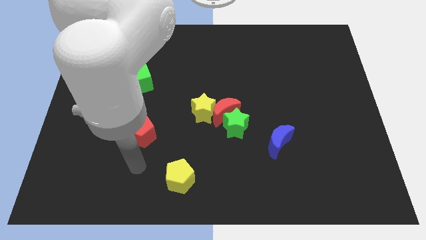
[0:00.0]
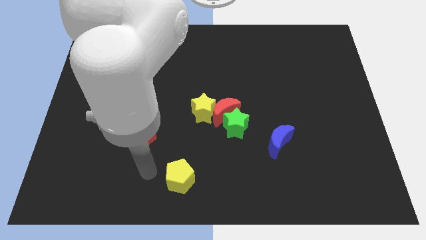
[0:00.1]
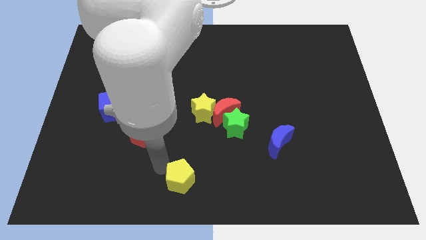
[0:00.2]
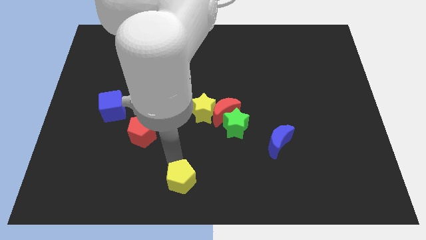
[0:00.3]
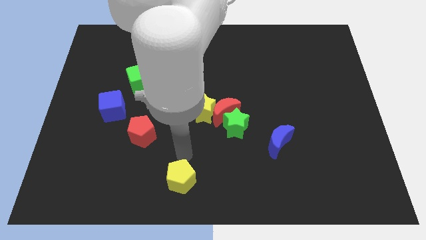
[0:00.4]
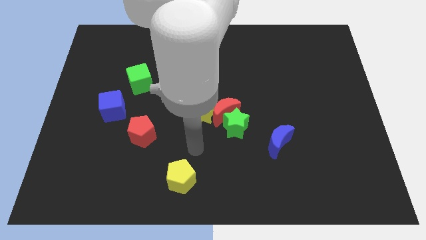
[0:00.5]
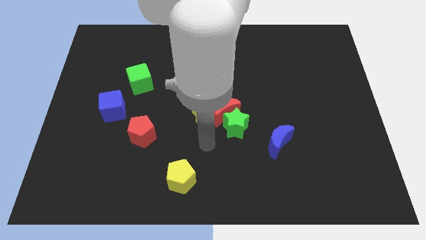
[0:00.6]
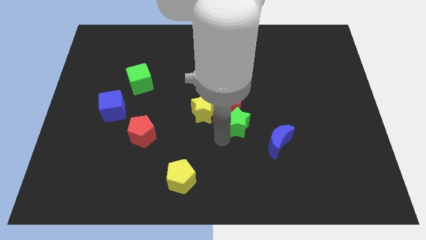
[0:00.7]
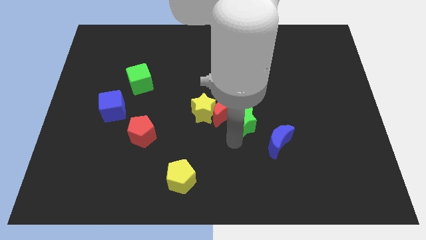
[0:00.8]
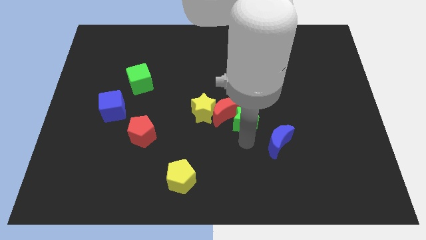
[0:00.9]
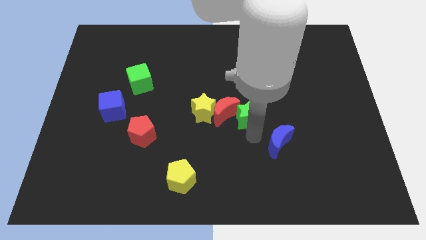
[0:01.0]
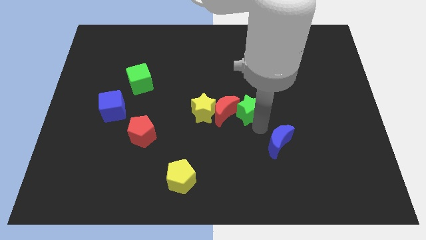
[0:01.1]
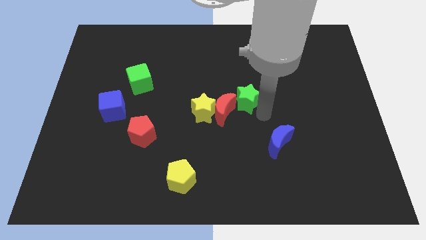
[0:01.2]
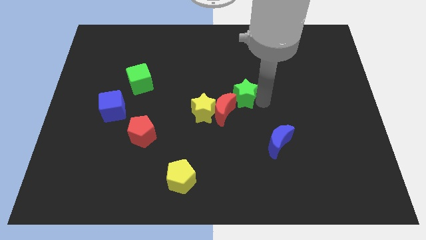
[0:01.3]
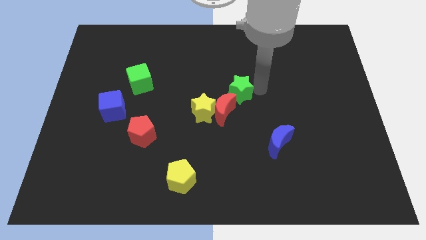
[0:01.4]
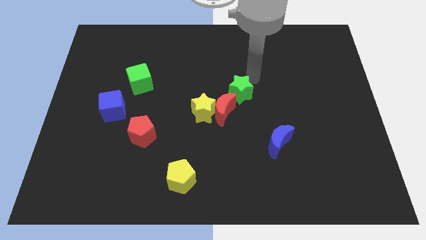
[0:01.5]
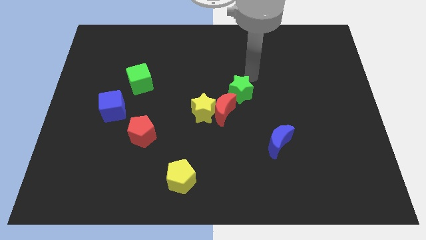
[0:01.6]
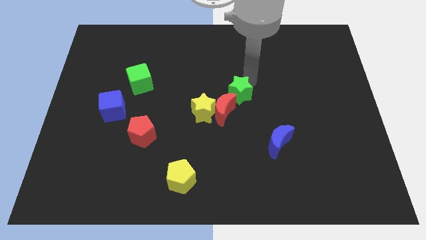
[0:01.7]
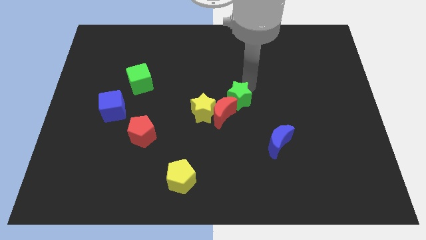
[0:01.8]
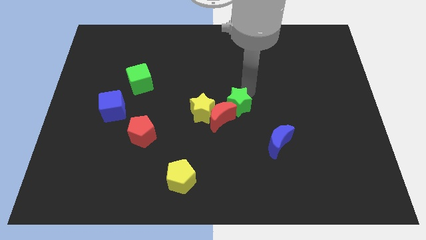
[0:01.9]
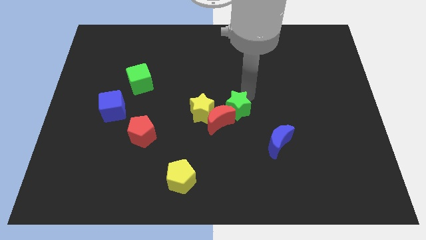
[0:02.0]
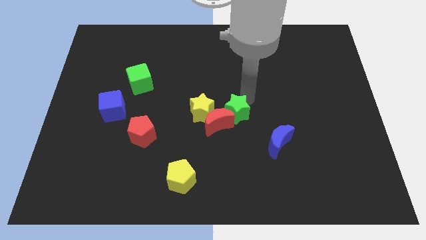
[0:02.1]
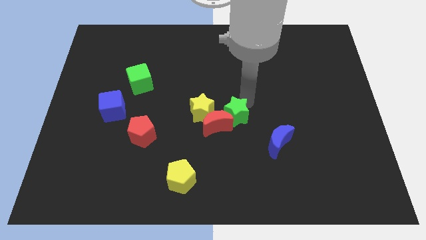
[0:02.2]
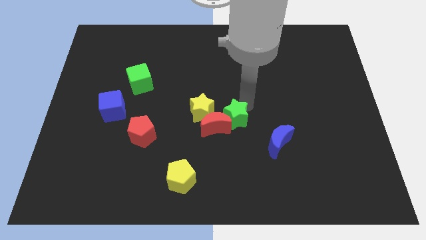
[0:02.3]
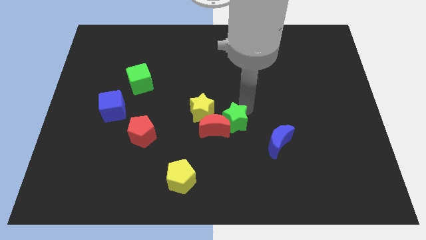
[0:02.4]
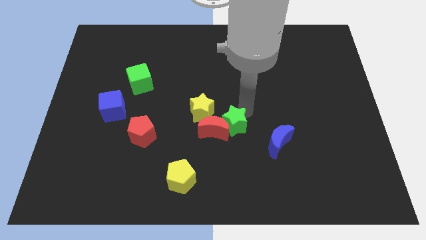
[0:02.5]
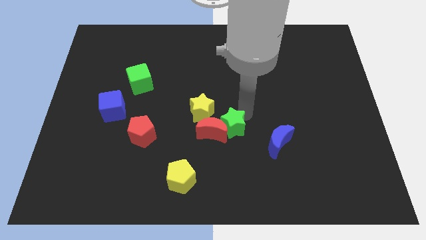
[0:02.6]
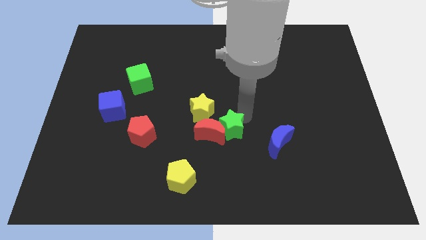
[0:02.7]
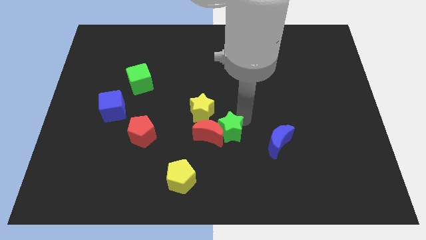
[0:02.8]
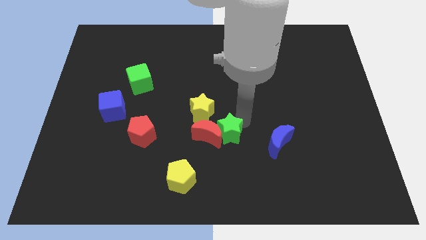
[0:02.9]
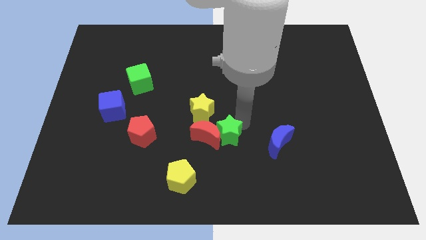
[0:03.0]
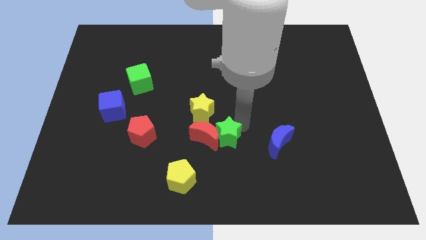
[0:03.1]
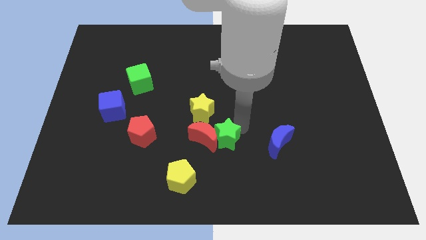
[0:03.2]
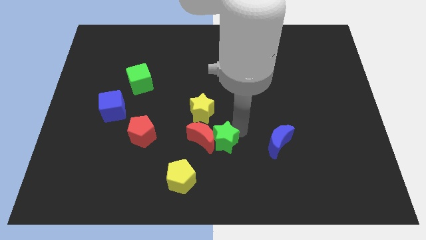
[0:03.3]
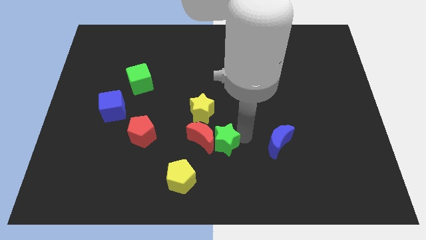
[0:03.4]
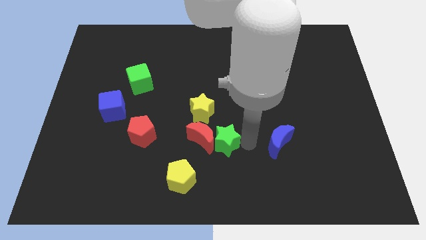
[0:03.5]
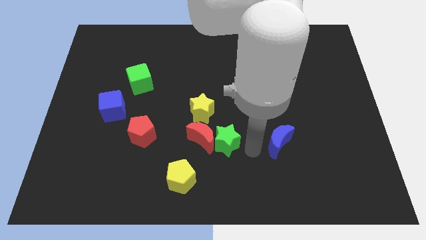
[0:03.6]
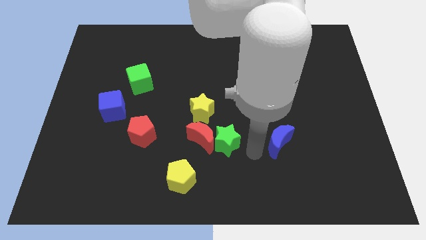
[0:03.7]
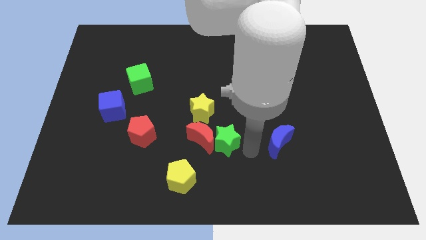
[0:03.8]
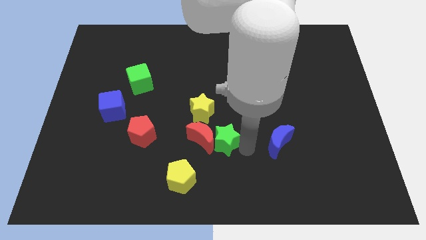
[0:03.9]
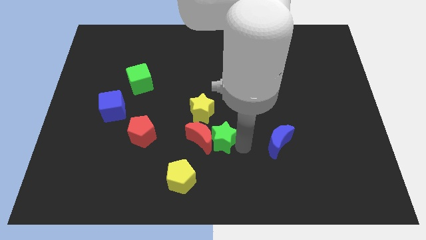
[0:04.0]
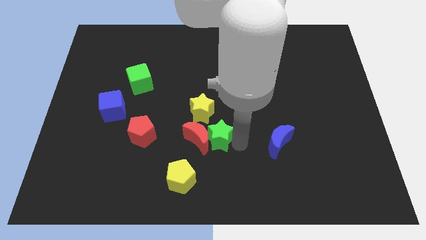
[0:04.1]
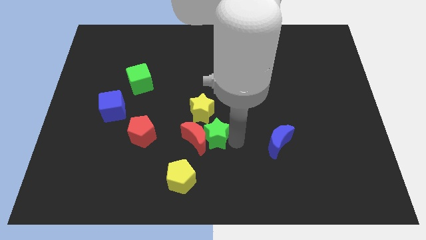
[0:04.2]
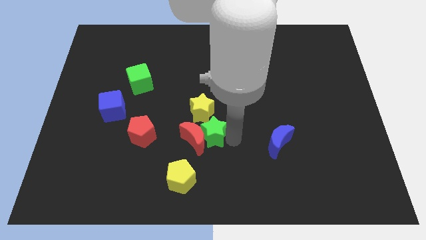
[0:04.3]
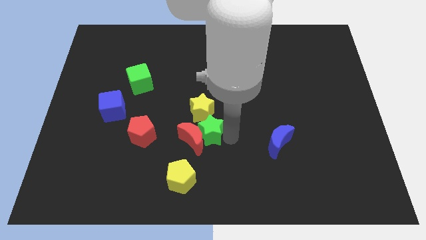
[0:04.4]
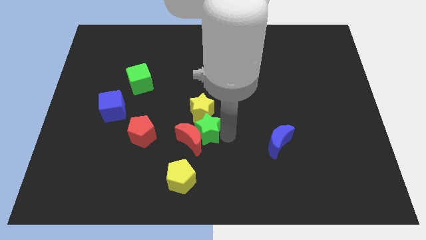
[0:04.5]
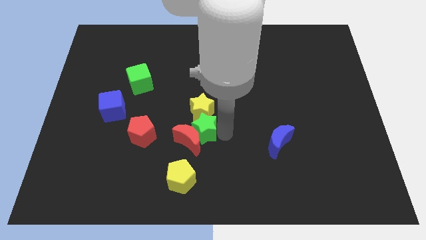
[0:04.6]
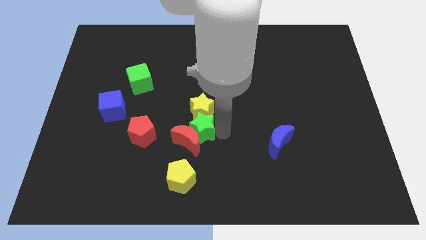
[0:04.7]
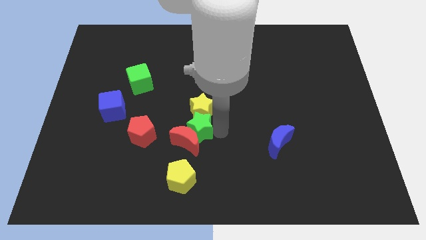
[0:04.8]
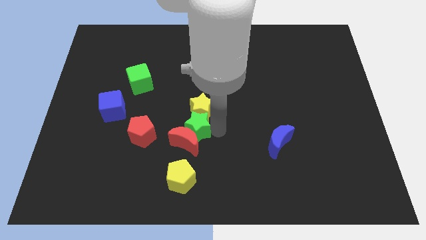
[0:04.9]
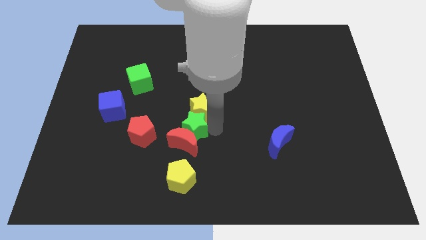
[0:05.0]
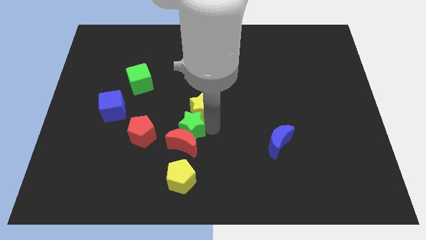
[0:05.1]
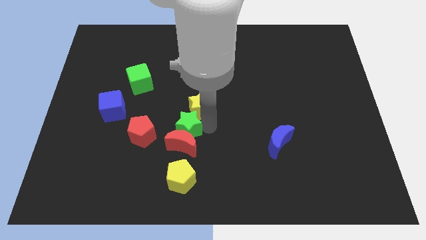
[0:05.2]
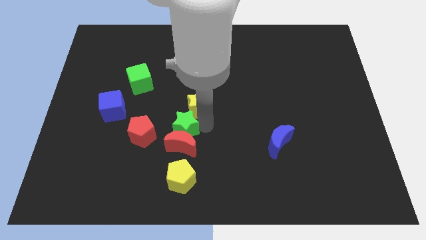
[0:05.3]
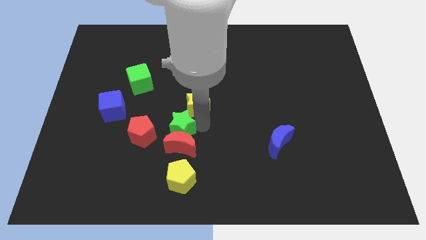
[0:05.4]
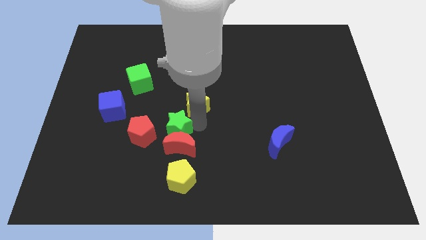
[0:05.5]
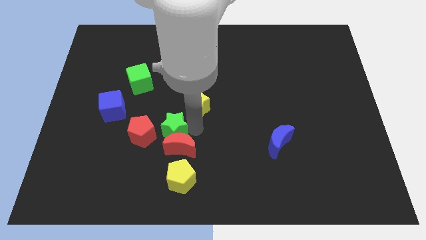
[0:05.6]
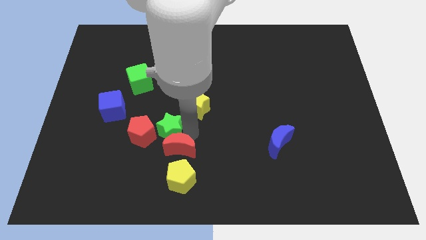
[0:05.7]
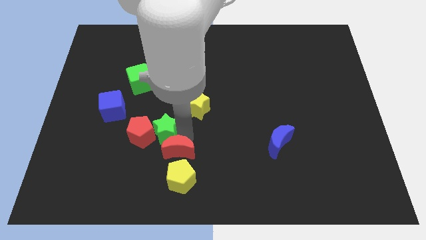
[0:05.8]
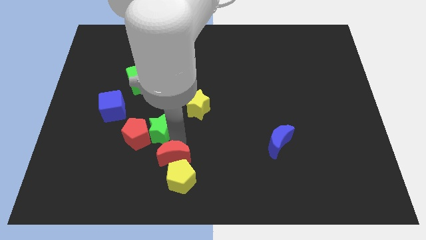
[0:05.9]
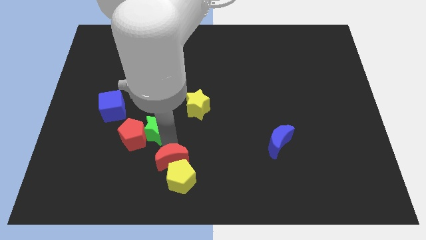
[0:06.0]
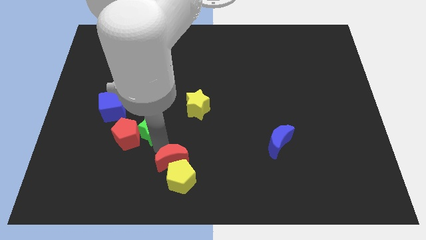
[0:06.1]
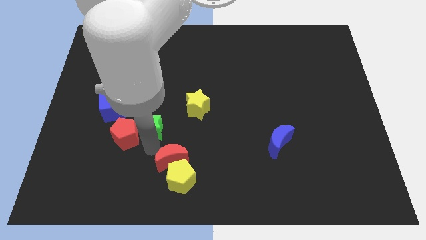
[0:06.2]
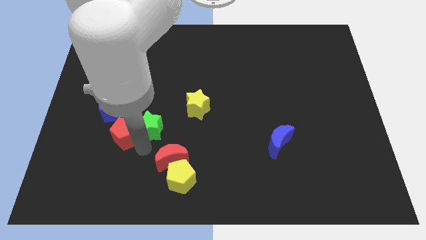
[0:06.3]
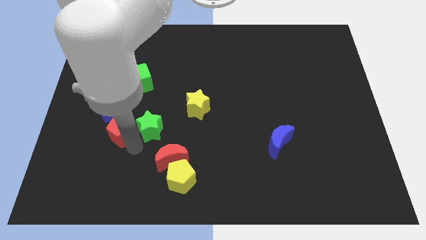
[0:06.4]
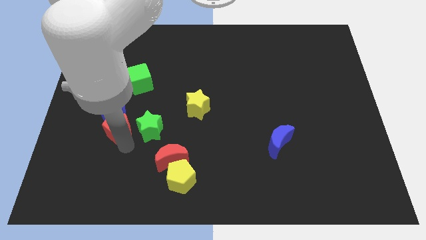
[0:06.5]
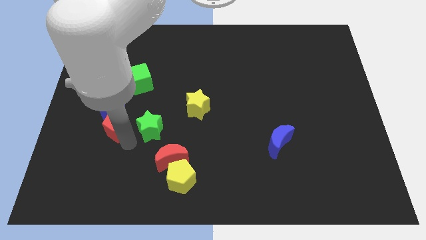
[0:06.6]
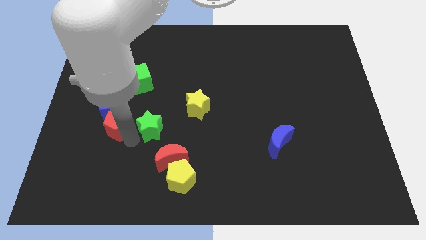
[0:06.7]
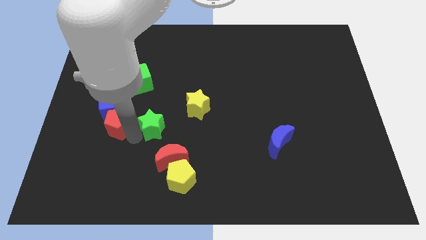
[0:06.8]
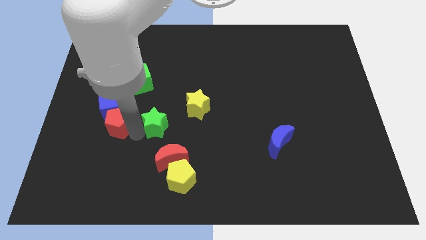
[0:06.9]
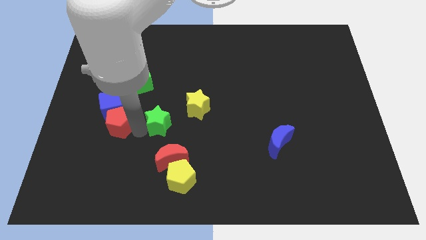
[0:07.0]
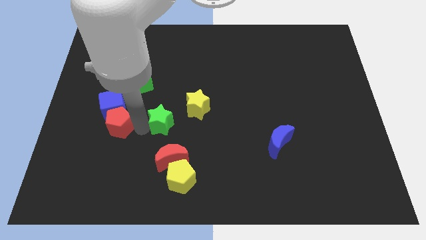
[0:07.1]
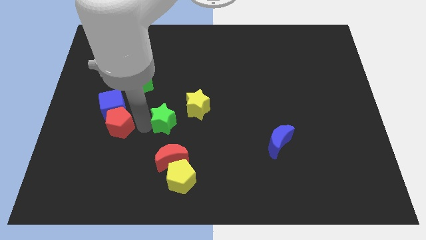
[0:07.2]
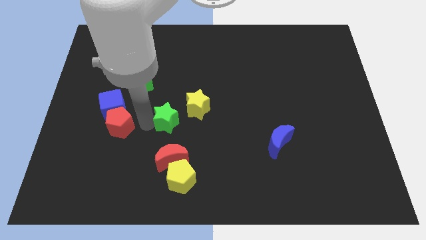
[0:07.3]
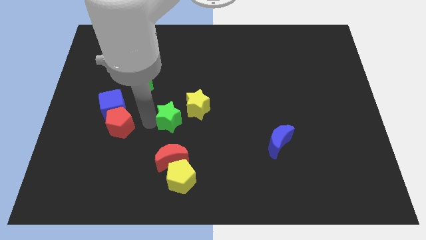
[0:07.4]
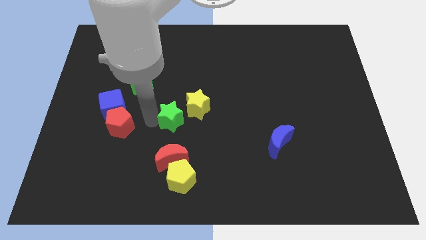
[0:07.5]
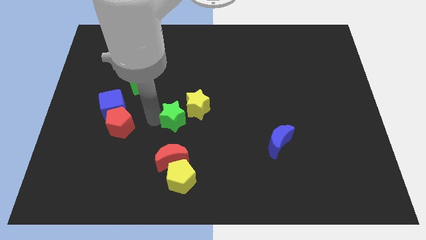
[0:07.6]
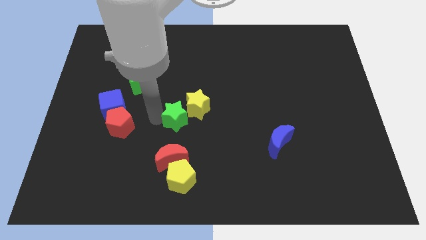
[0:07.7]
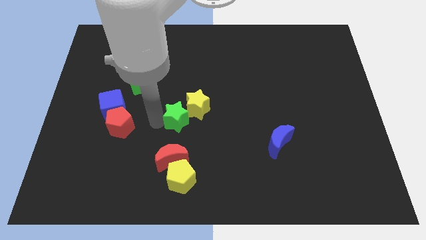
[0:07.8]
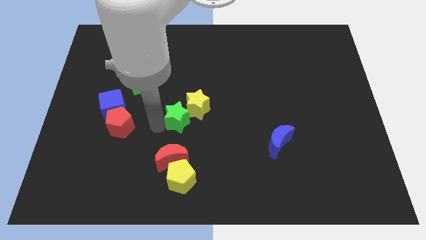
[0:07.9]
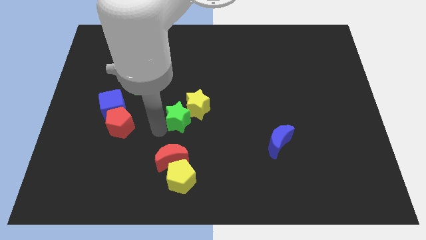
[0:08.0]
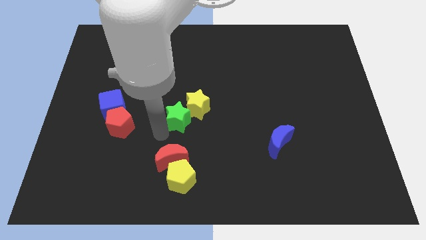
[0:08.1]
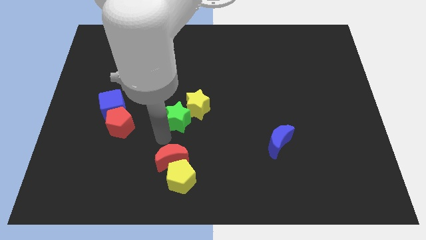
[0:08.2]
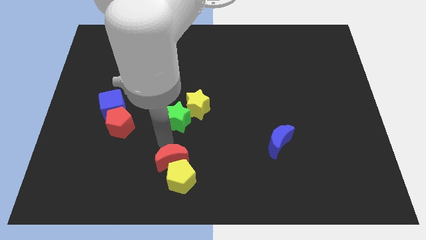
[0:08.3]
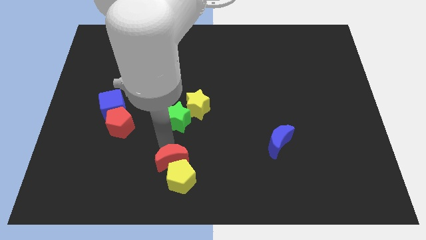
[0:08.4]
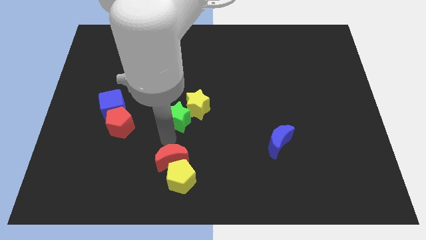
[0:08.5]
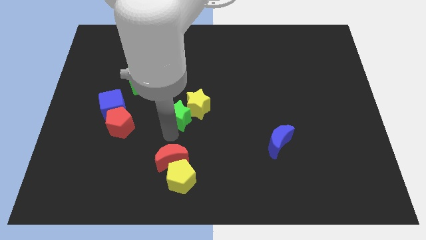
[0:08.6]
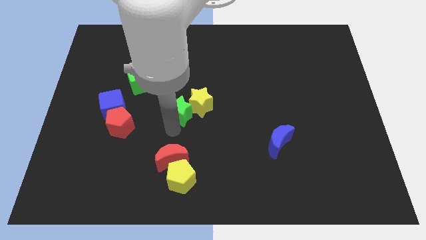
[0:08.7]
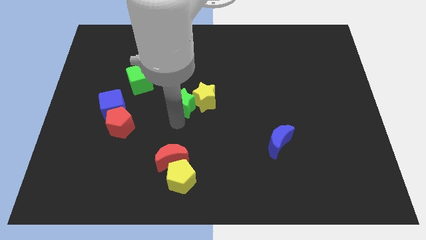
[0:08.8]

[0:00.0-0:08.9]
put the green star diagonally up and to the left of the yellow star
